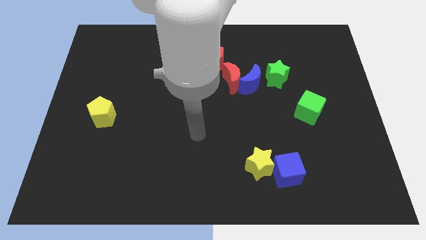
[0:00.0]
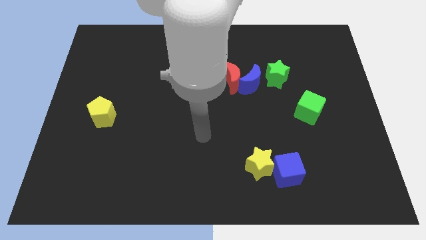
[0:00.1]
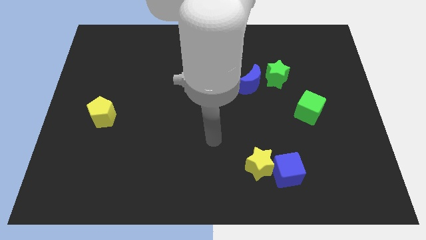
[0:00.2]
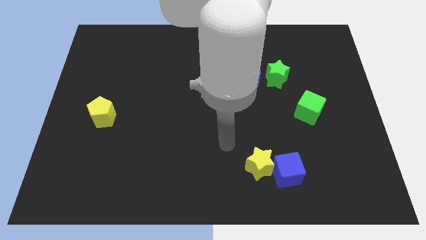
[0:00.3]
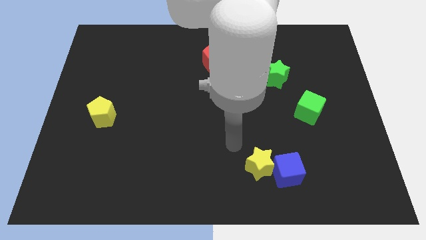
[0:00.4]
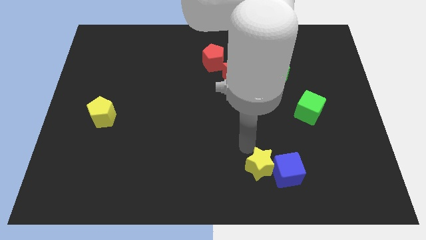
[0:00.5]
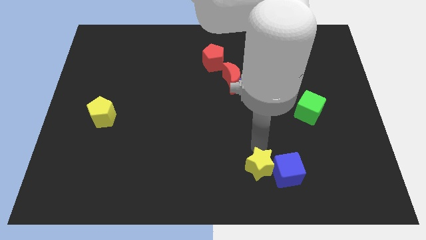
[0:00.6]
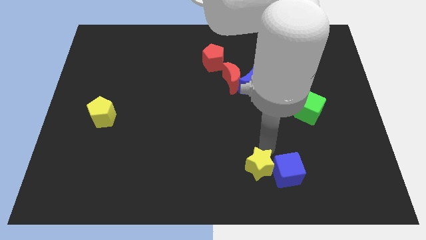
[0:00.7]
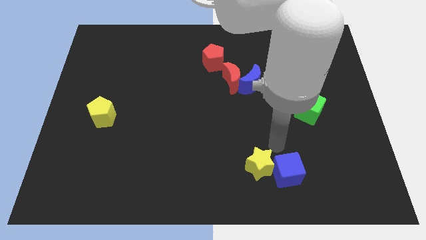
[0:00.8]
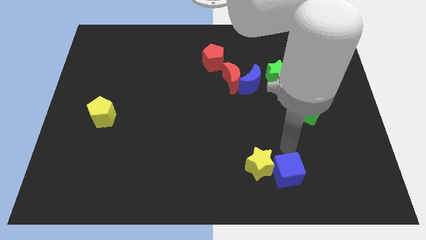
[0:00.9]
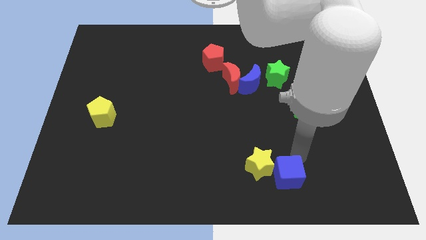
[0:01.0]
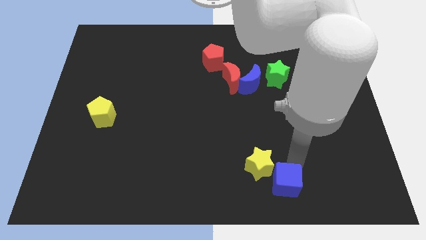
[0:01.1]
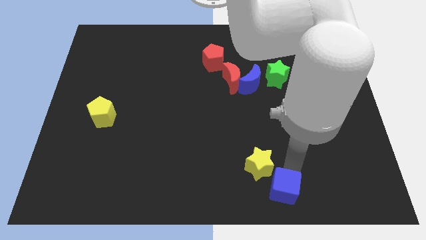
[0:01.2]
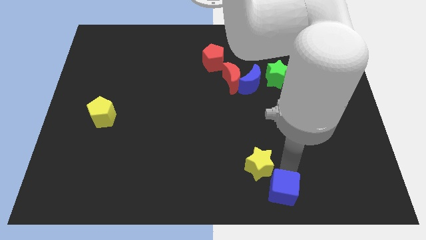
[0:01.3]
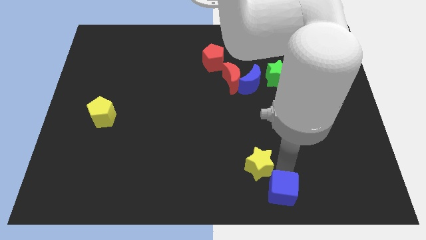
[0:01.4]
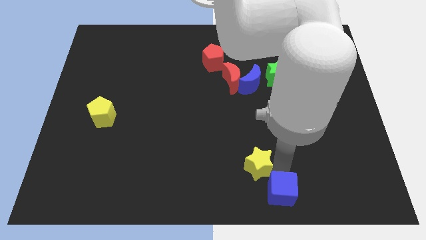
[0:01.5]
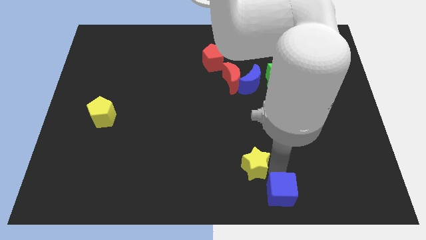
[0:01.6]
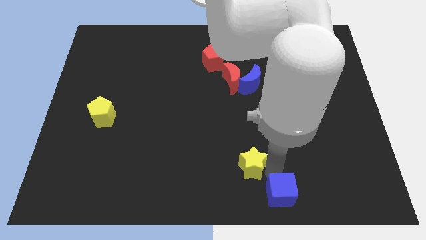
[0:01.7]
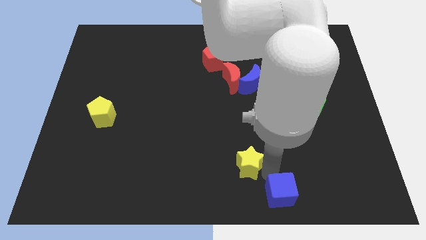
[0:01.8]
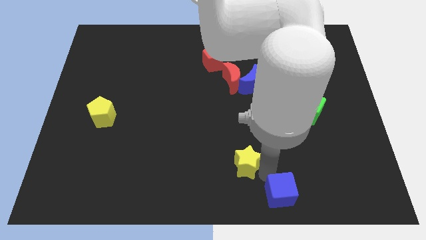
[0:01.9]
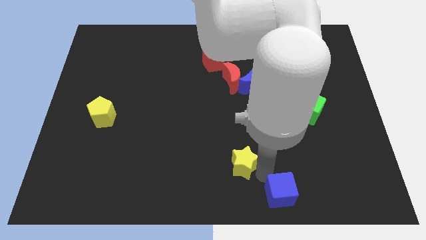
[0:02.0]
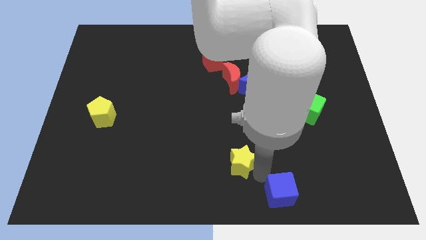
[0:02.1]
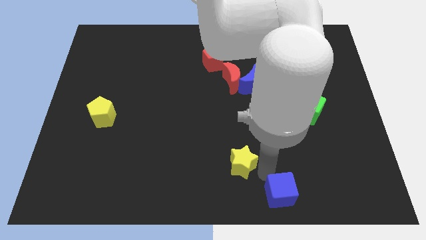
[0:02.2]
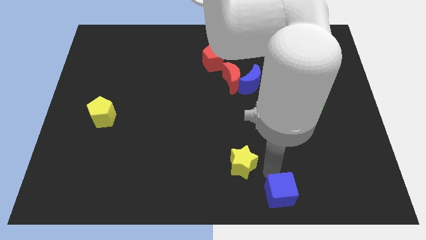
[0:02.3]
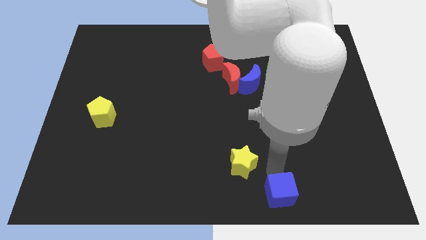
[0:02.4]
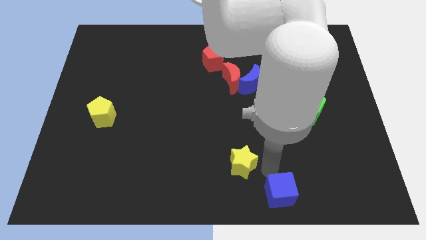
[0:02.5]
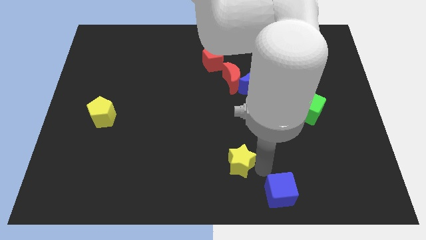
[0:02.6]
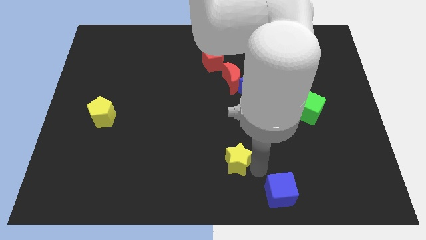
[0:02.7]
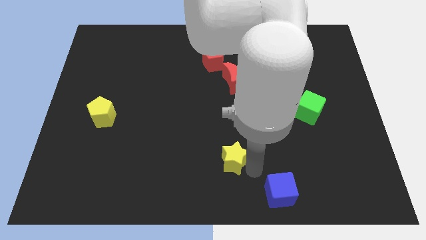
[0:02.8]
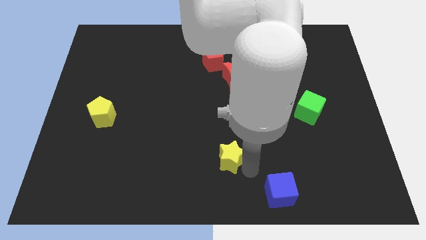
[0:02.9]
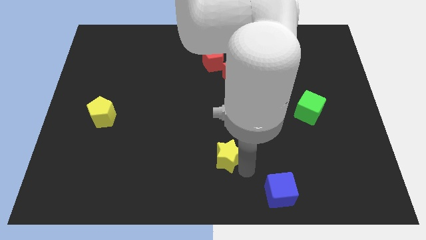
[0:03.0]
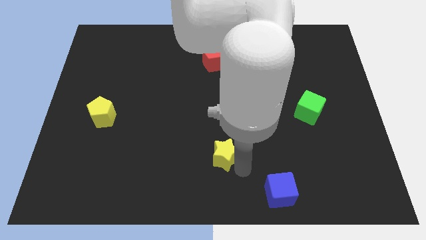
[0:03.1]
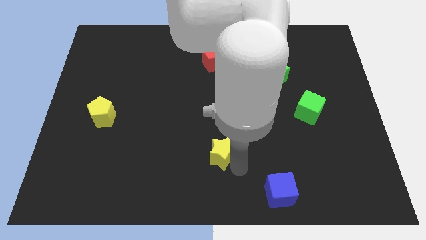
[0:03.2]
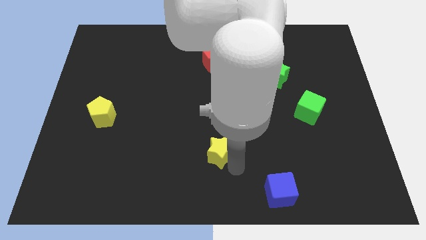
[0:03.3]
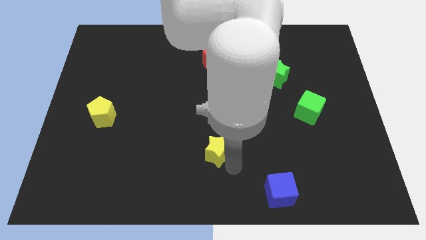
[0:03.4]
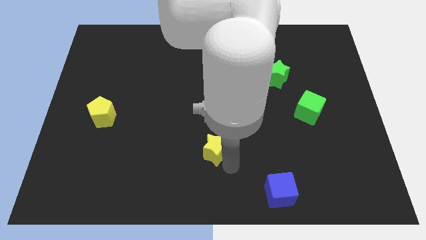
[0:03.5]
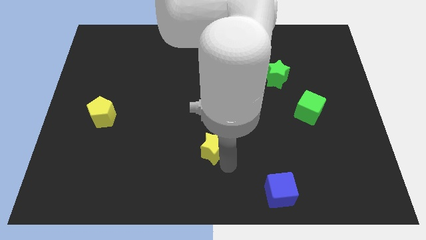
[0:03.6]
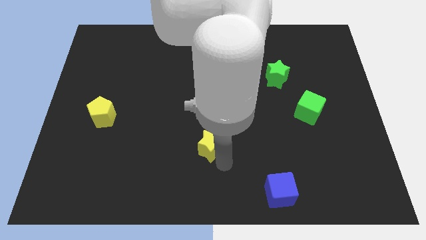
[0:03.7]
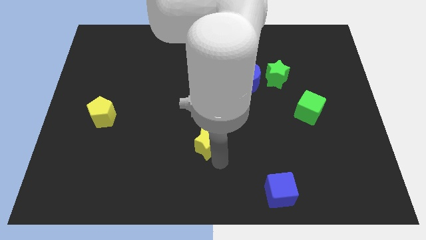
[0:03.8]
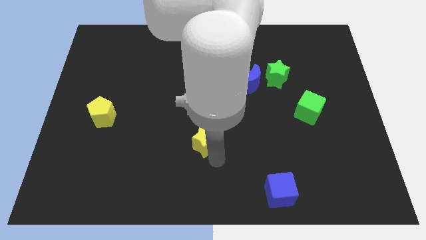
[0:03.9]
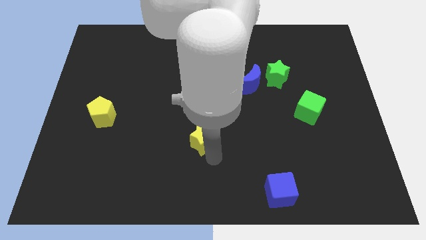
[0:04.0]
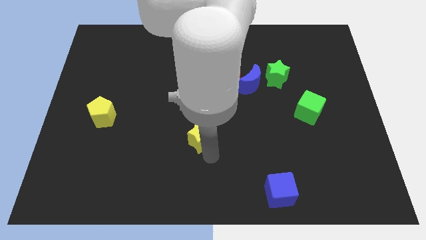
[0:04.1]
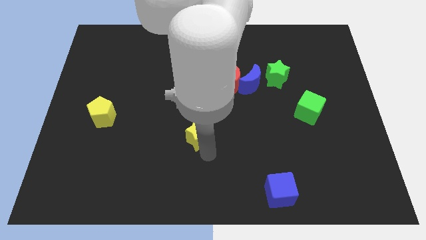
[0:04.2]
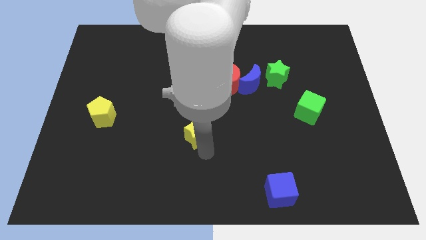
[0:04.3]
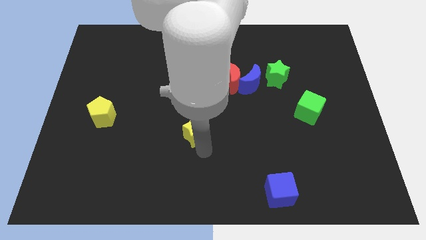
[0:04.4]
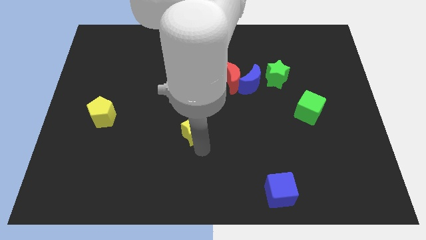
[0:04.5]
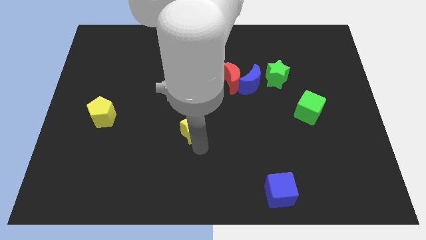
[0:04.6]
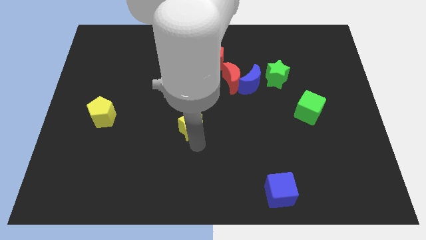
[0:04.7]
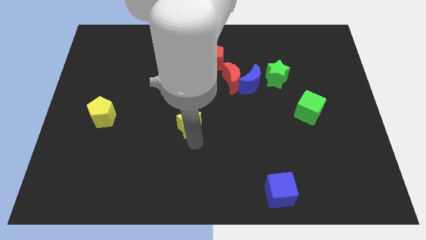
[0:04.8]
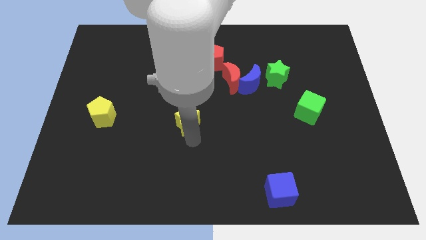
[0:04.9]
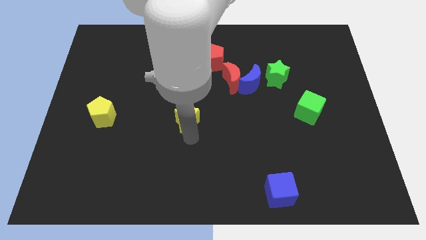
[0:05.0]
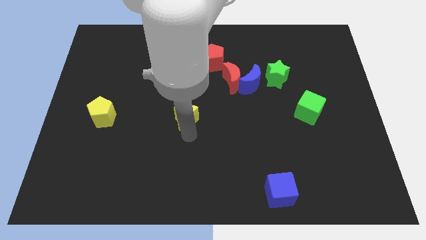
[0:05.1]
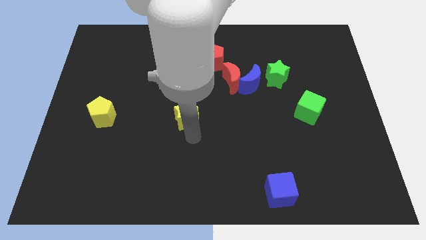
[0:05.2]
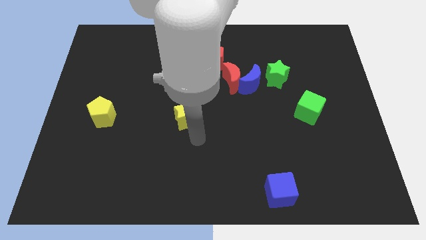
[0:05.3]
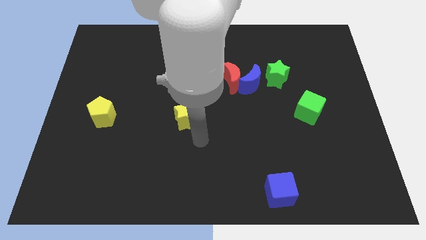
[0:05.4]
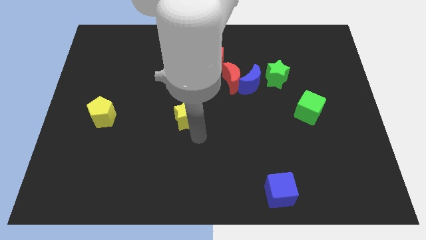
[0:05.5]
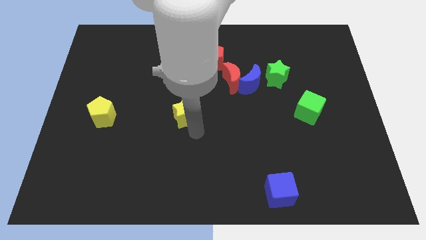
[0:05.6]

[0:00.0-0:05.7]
move the yellow star up and to the left

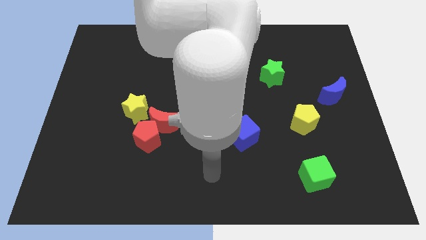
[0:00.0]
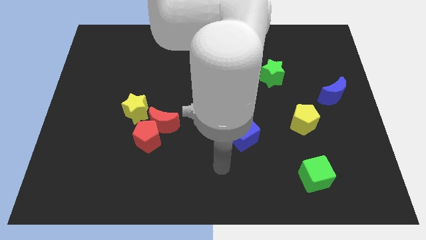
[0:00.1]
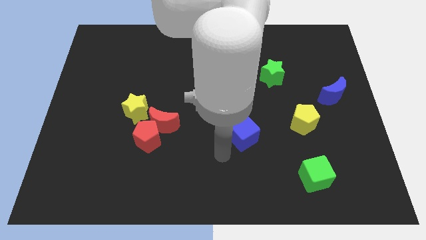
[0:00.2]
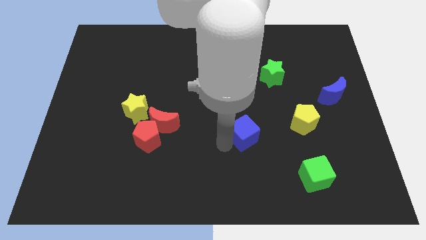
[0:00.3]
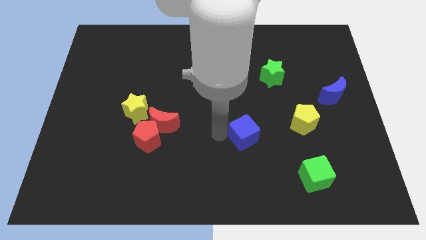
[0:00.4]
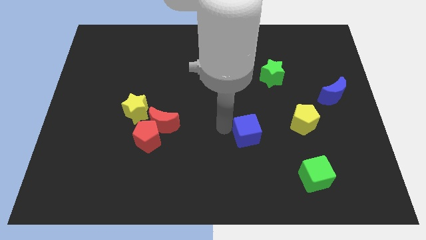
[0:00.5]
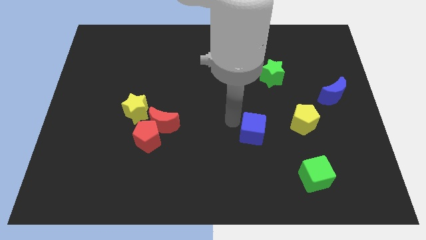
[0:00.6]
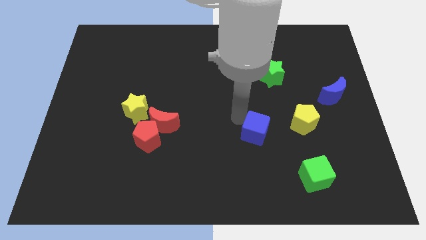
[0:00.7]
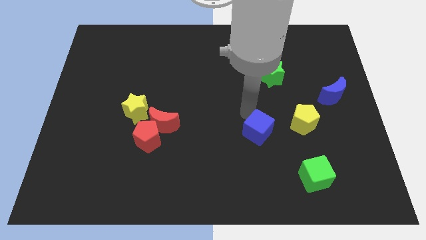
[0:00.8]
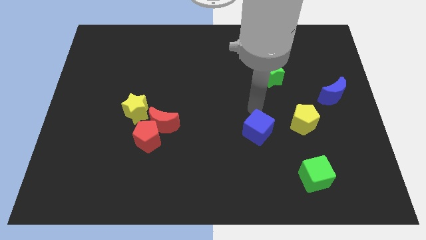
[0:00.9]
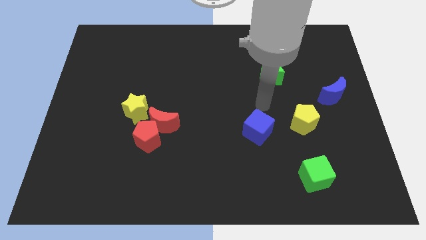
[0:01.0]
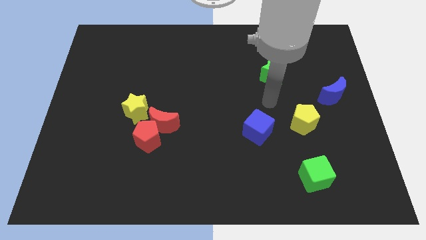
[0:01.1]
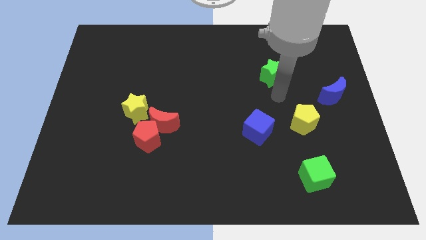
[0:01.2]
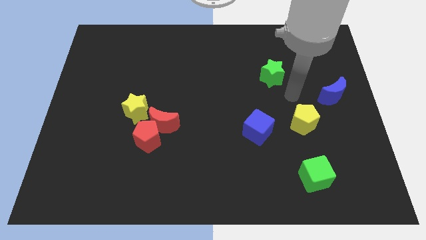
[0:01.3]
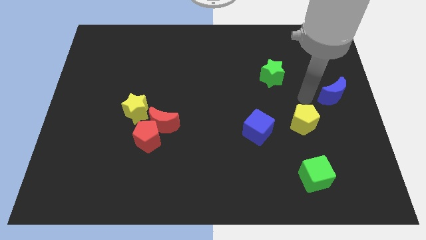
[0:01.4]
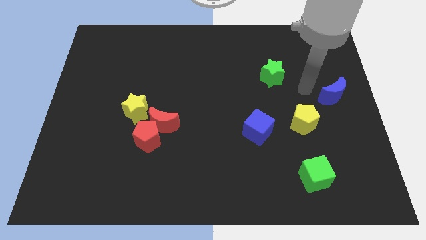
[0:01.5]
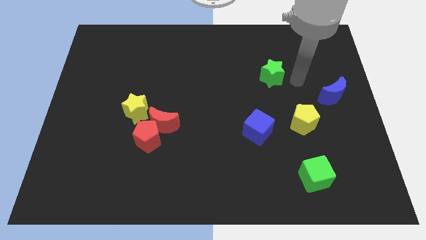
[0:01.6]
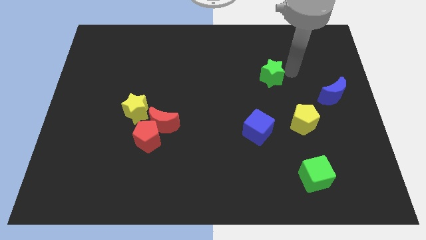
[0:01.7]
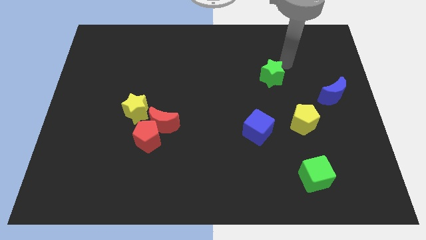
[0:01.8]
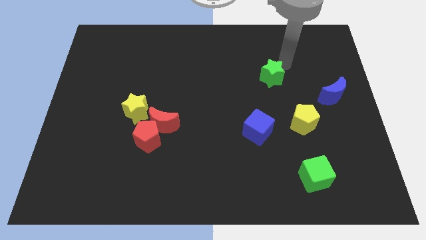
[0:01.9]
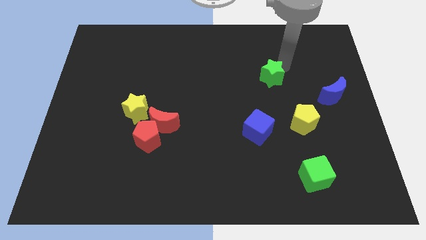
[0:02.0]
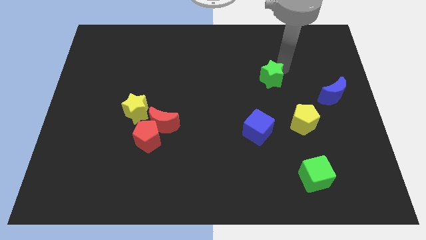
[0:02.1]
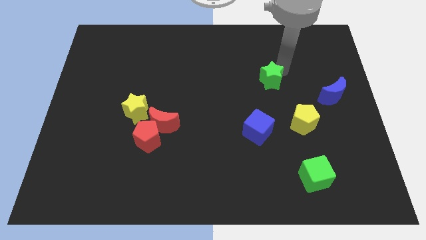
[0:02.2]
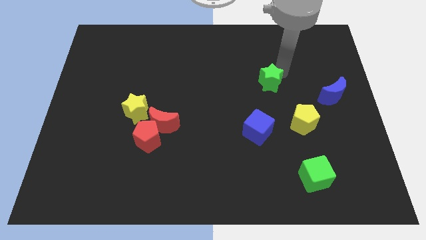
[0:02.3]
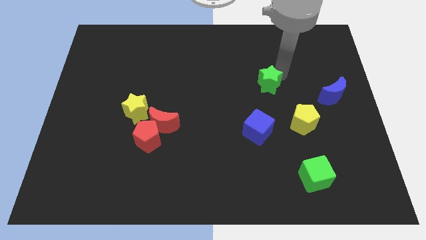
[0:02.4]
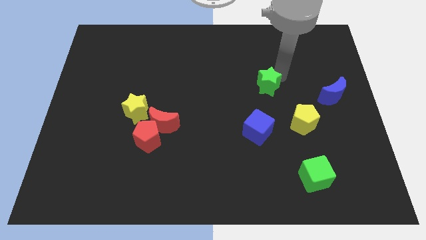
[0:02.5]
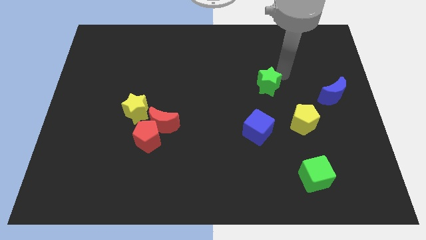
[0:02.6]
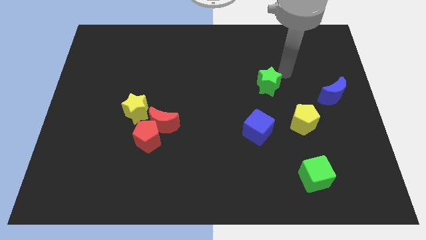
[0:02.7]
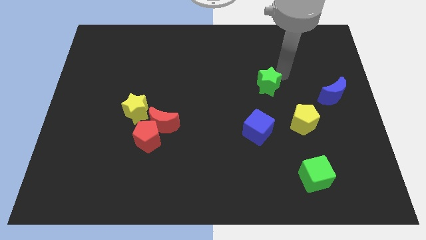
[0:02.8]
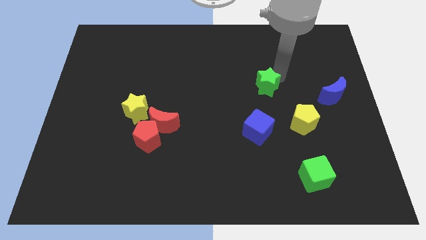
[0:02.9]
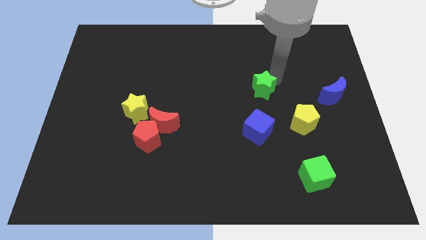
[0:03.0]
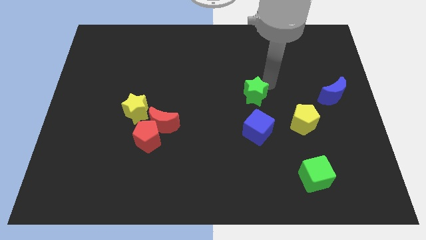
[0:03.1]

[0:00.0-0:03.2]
slightly slide the green star down and then left
